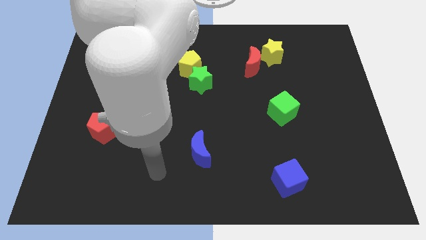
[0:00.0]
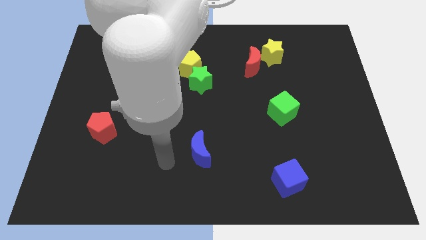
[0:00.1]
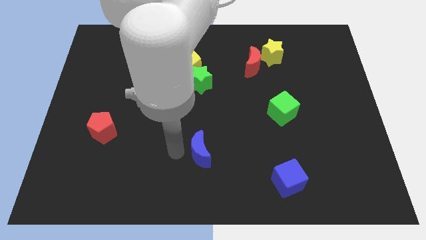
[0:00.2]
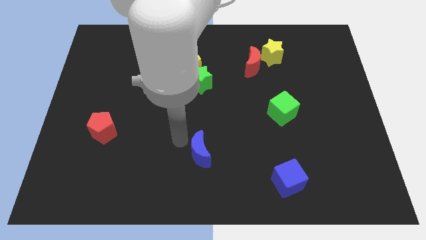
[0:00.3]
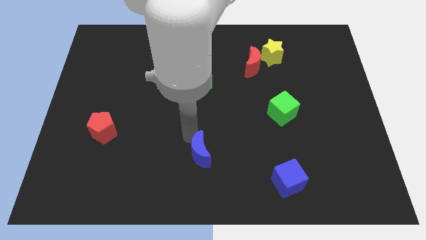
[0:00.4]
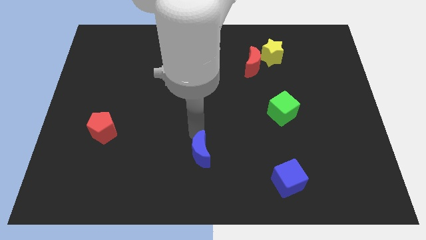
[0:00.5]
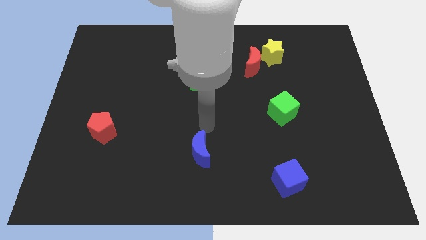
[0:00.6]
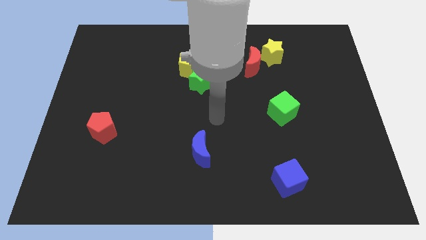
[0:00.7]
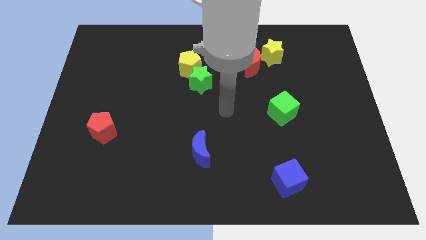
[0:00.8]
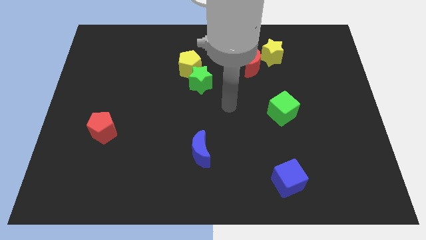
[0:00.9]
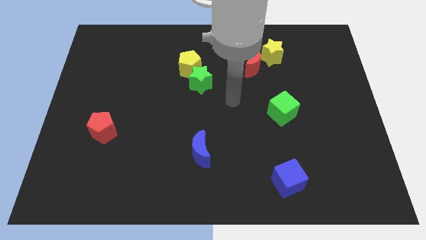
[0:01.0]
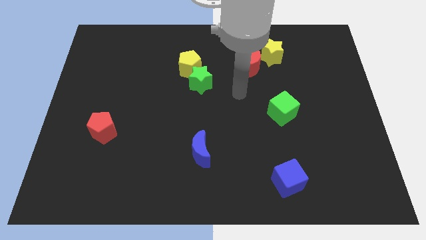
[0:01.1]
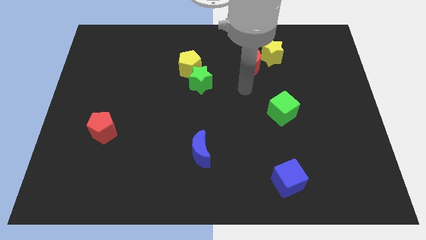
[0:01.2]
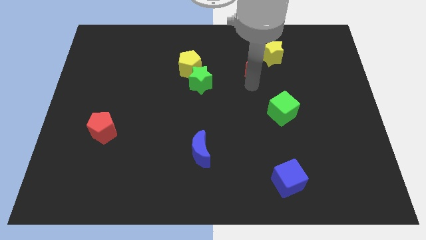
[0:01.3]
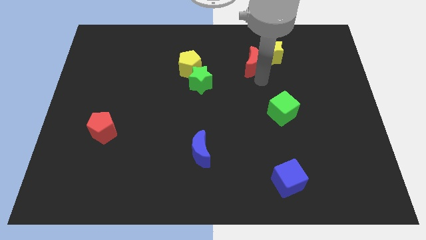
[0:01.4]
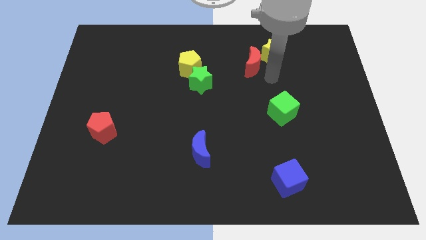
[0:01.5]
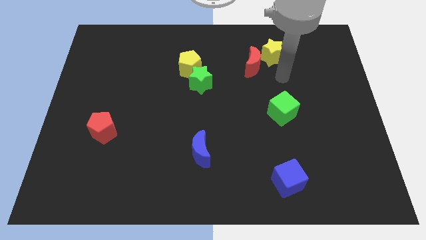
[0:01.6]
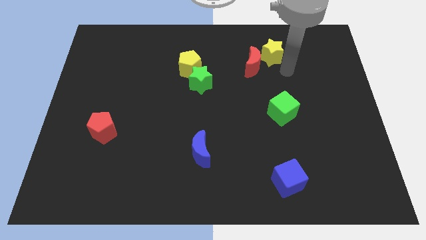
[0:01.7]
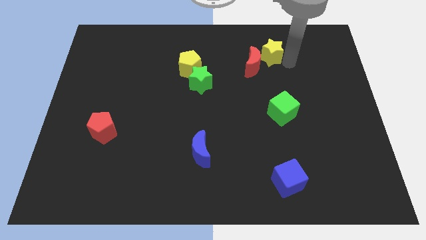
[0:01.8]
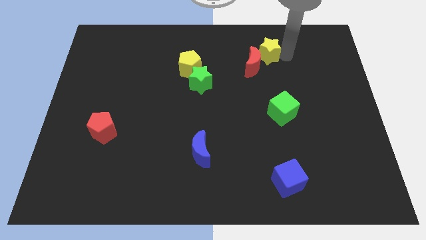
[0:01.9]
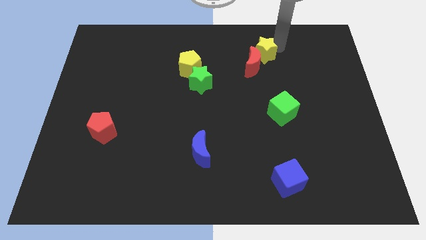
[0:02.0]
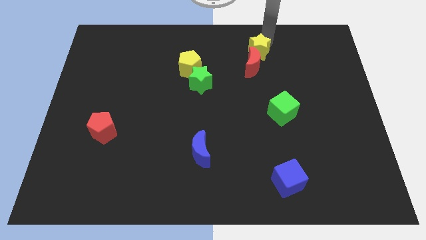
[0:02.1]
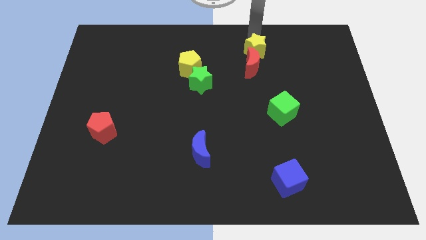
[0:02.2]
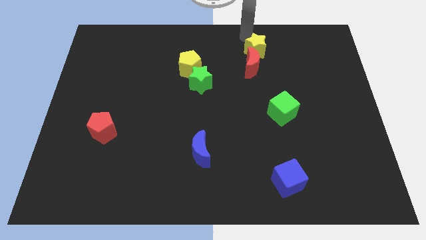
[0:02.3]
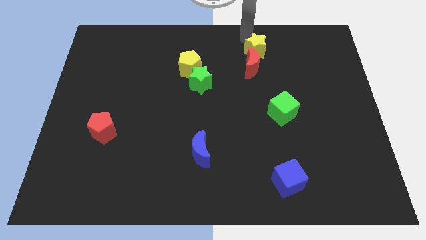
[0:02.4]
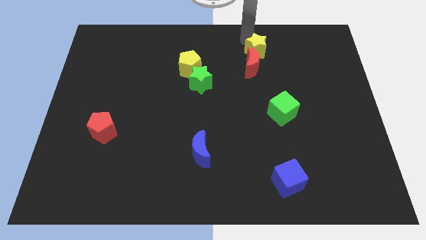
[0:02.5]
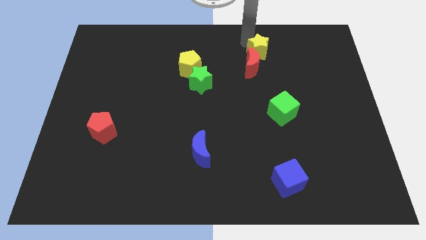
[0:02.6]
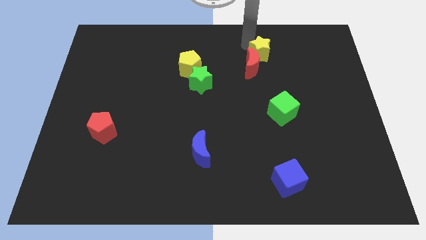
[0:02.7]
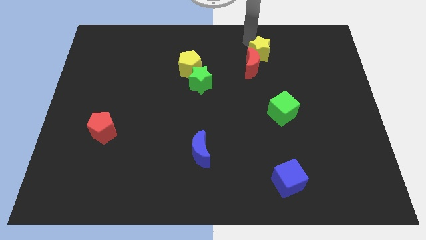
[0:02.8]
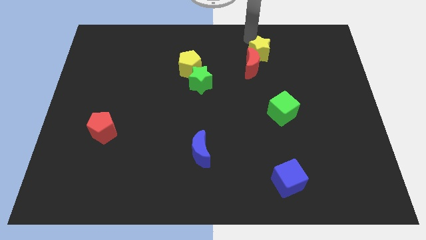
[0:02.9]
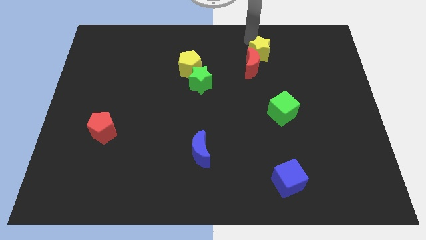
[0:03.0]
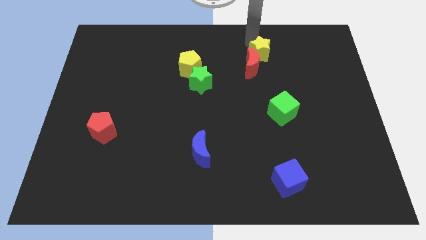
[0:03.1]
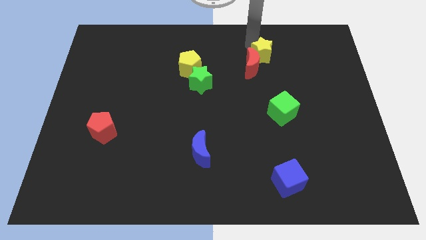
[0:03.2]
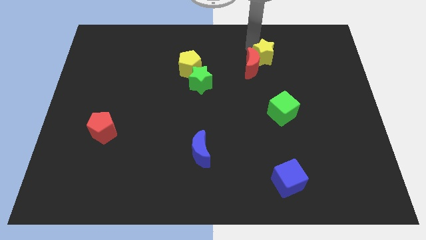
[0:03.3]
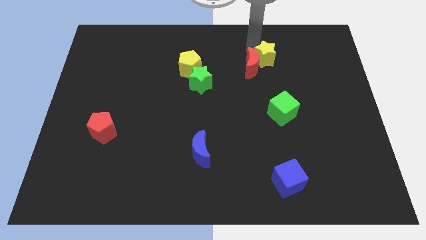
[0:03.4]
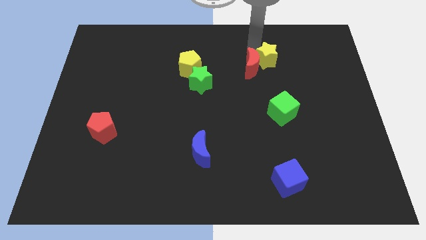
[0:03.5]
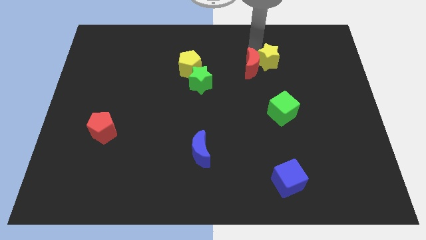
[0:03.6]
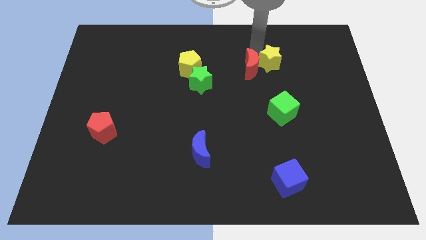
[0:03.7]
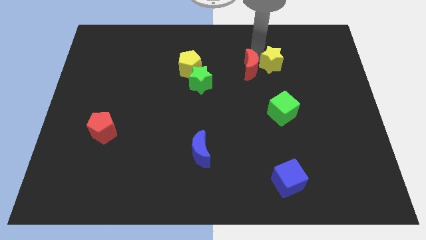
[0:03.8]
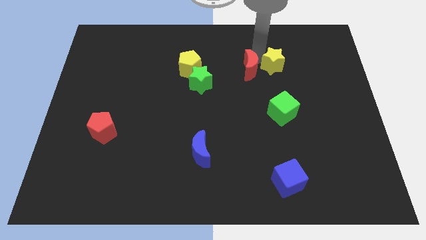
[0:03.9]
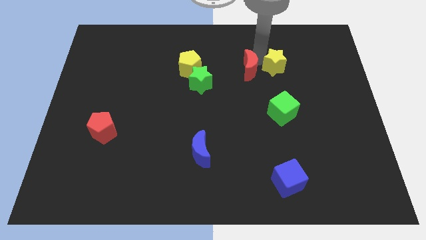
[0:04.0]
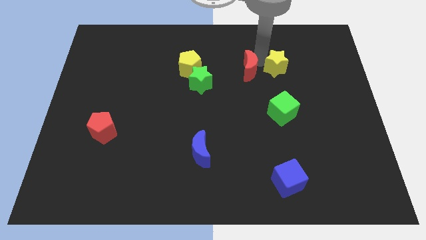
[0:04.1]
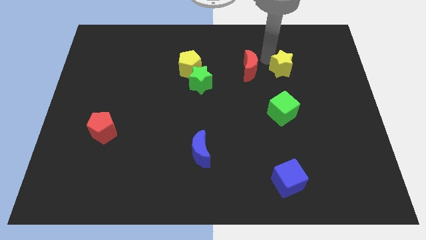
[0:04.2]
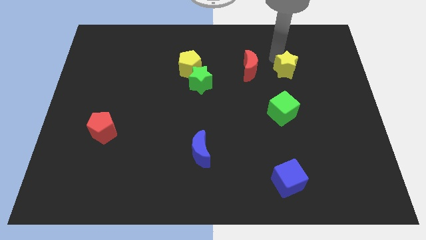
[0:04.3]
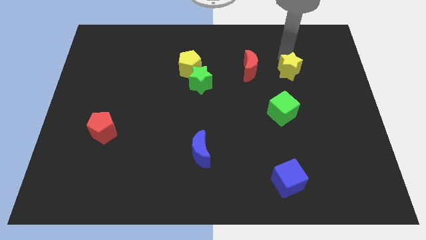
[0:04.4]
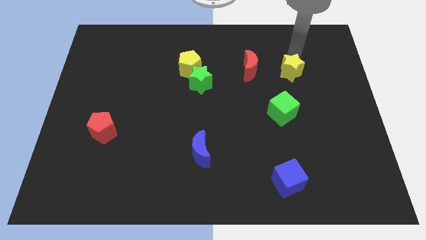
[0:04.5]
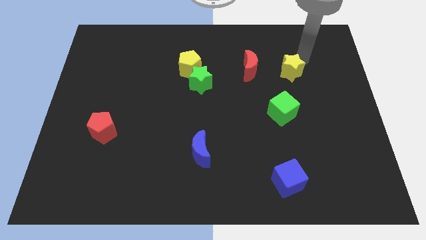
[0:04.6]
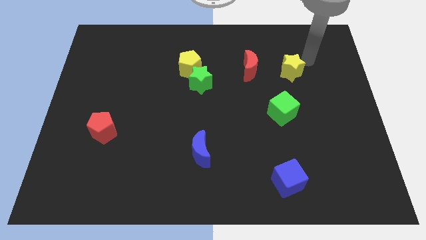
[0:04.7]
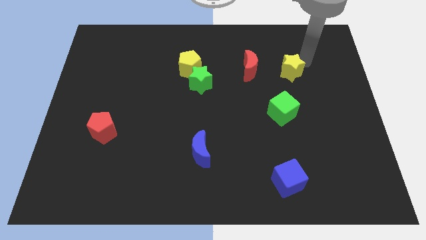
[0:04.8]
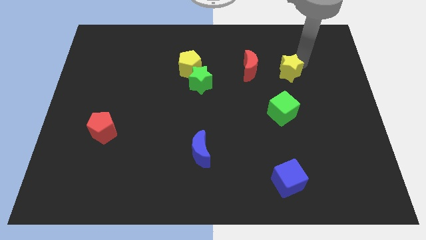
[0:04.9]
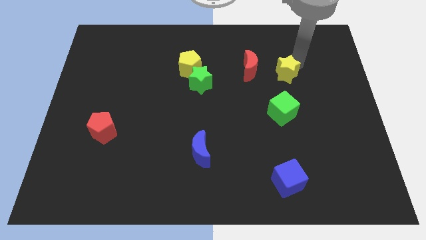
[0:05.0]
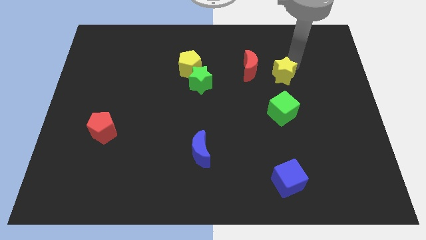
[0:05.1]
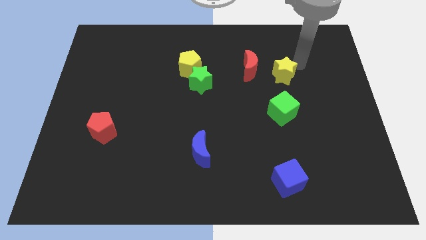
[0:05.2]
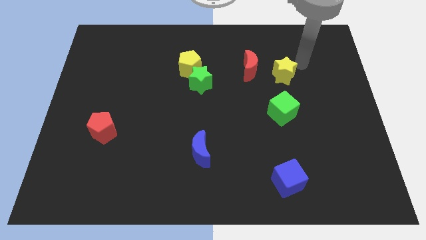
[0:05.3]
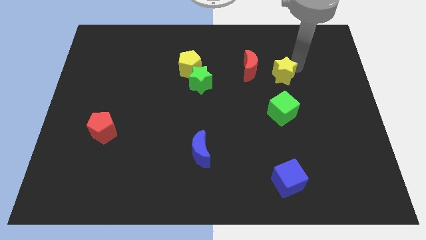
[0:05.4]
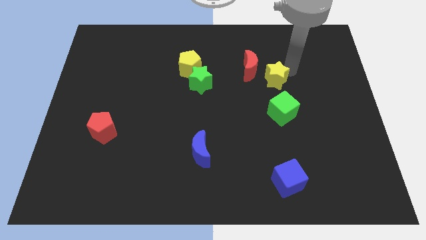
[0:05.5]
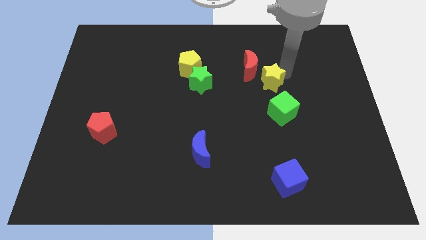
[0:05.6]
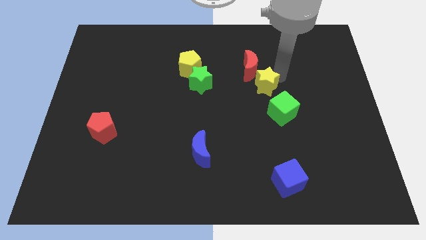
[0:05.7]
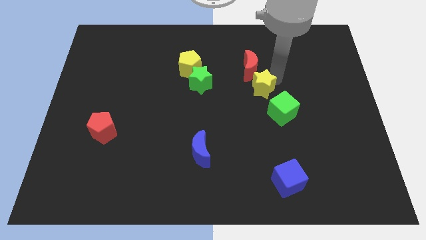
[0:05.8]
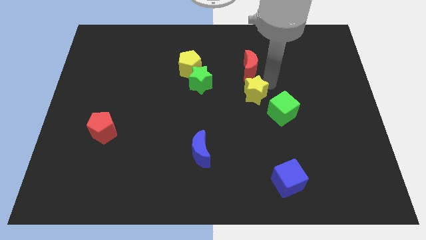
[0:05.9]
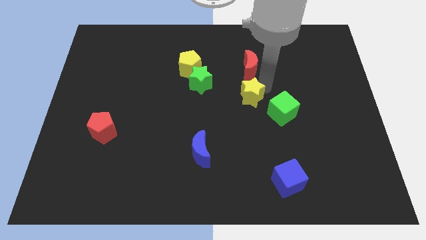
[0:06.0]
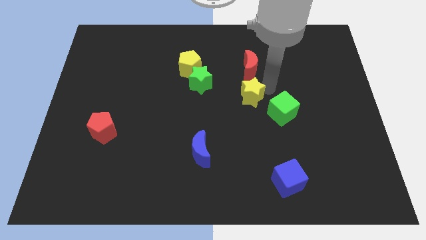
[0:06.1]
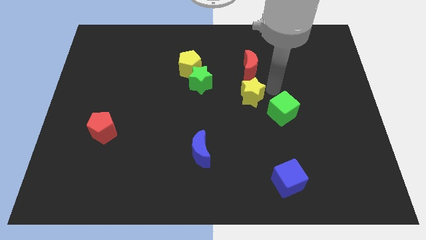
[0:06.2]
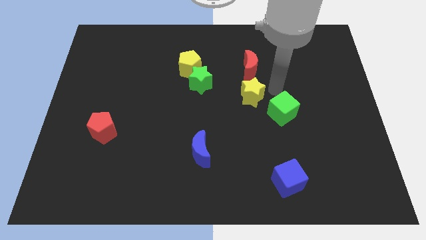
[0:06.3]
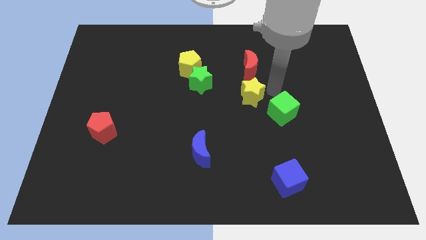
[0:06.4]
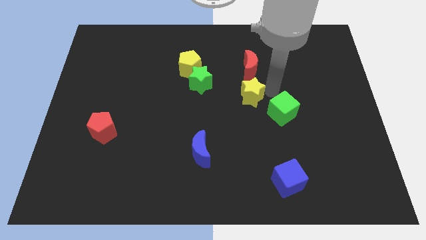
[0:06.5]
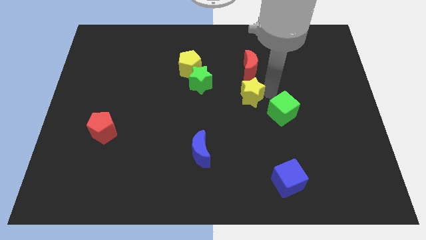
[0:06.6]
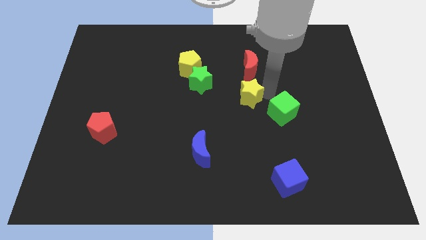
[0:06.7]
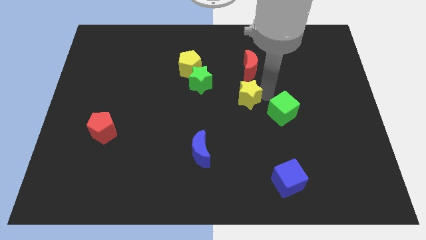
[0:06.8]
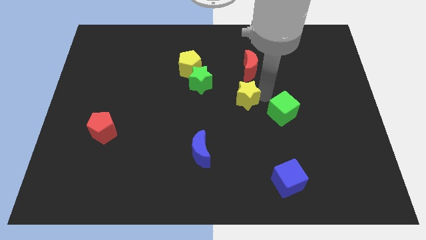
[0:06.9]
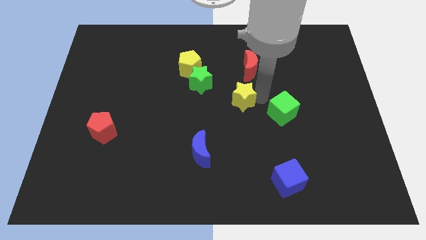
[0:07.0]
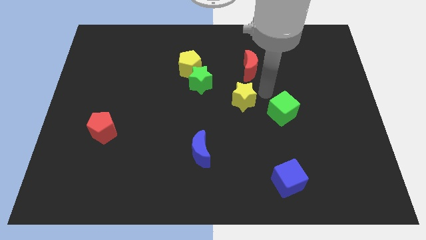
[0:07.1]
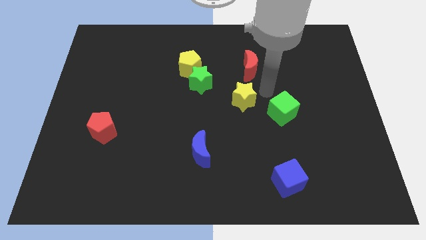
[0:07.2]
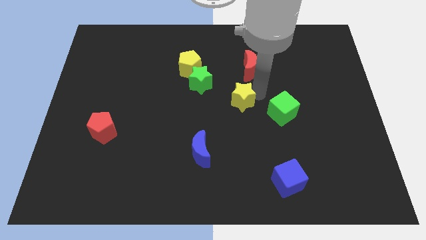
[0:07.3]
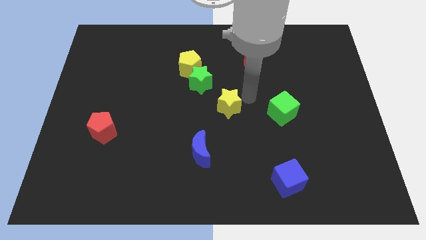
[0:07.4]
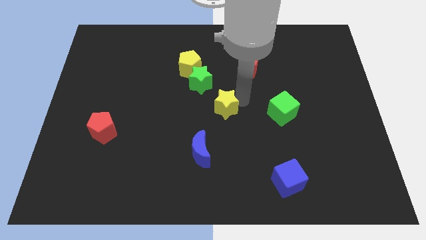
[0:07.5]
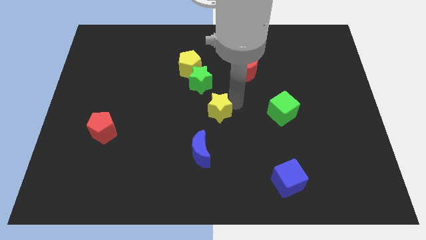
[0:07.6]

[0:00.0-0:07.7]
push the yellow star to the top side of the blue moon

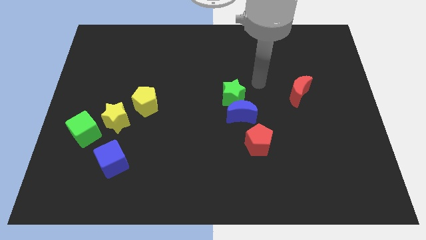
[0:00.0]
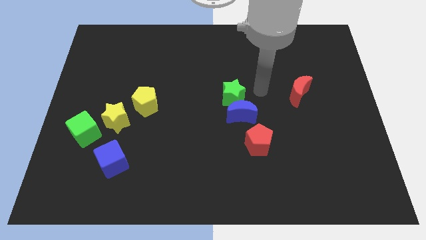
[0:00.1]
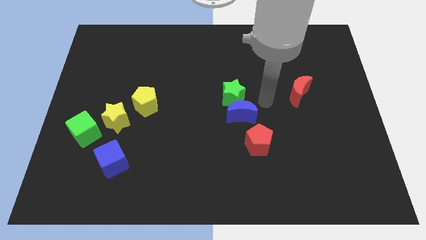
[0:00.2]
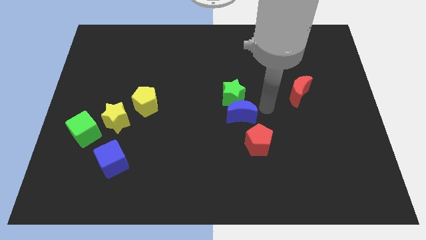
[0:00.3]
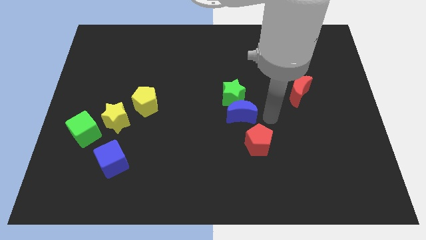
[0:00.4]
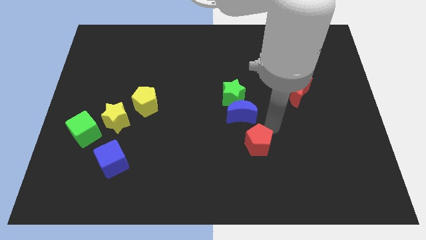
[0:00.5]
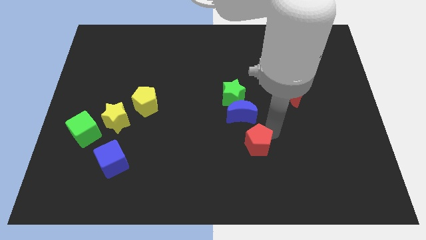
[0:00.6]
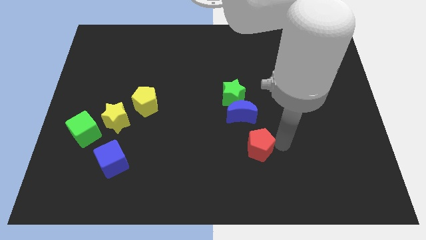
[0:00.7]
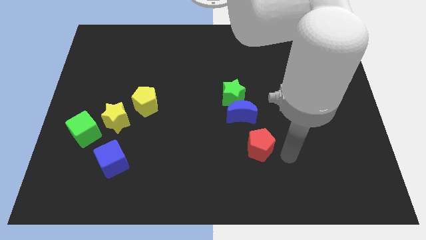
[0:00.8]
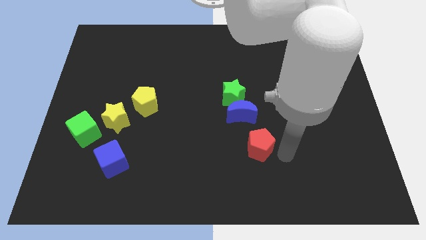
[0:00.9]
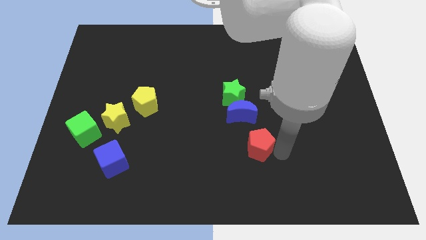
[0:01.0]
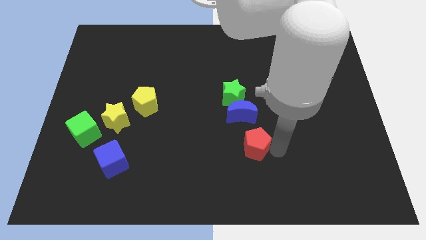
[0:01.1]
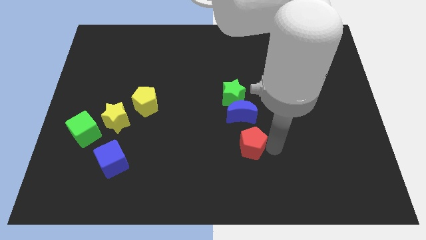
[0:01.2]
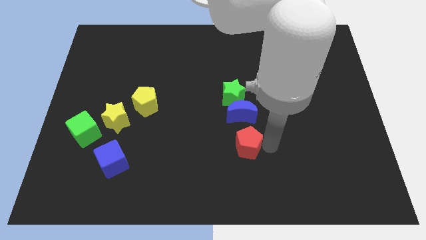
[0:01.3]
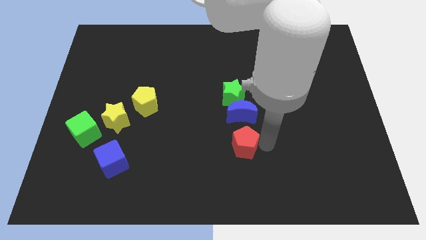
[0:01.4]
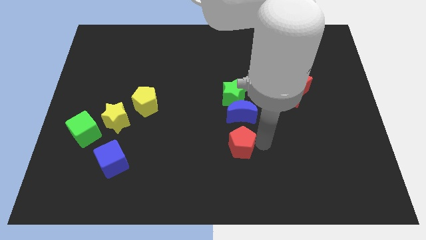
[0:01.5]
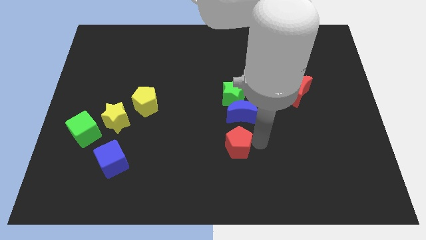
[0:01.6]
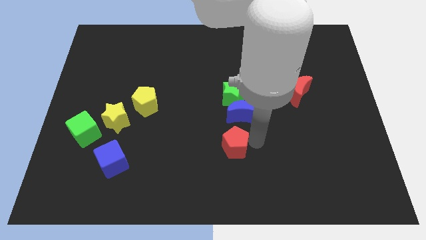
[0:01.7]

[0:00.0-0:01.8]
push the red pentagon diagonally down and to the left of the blue moon
